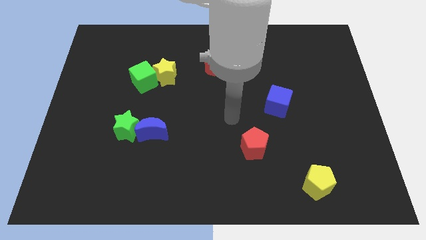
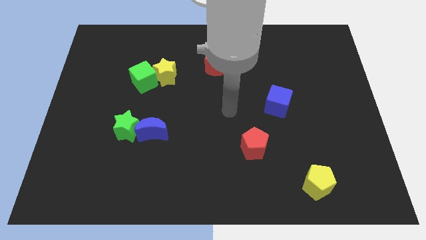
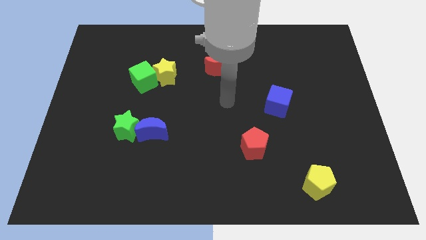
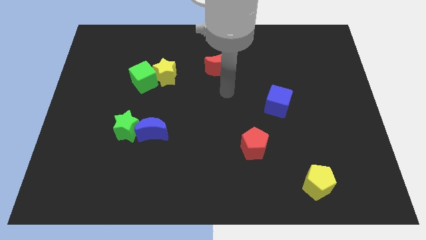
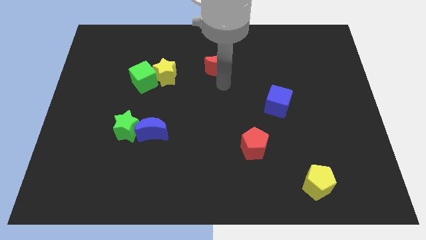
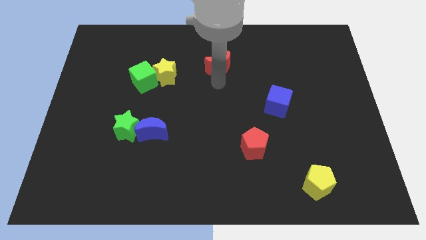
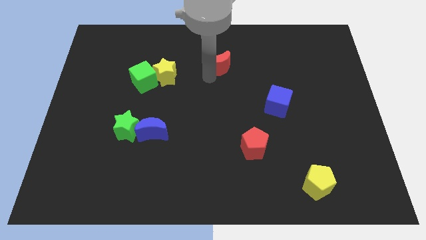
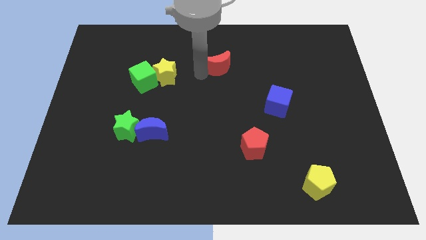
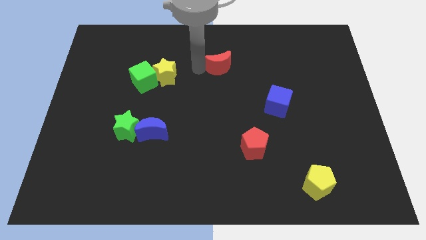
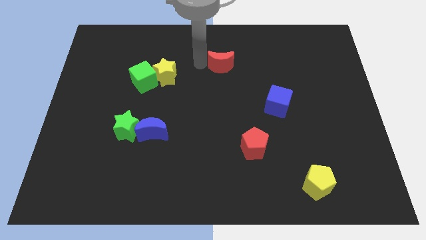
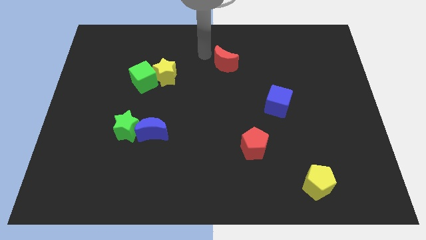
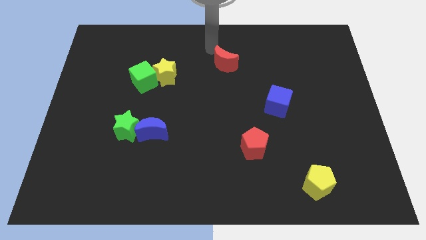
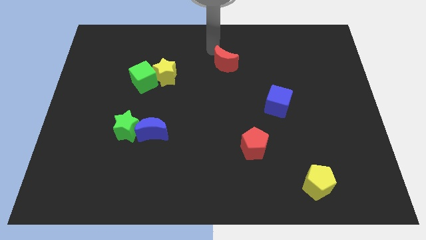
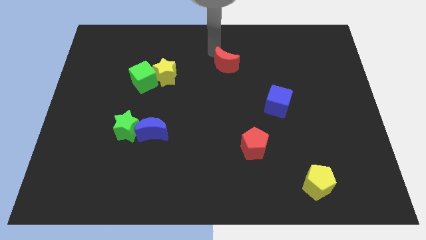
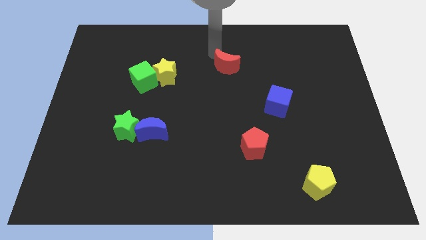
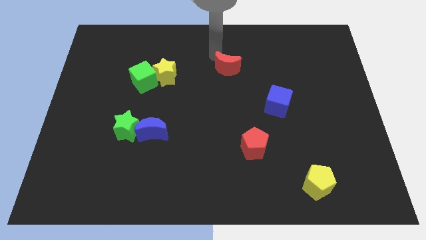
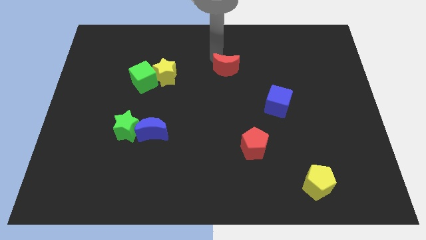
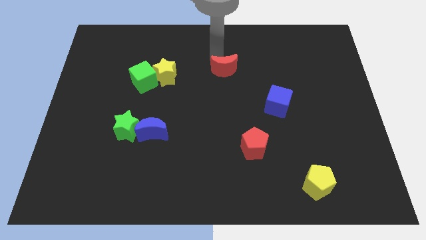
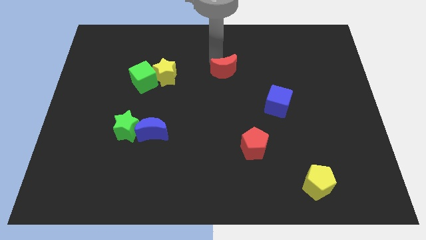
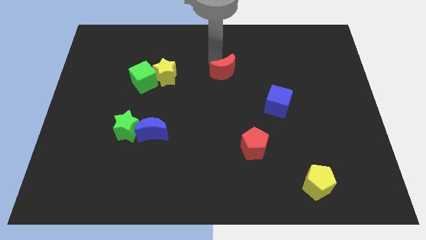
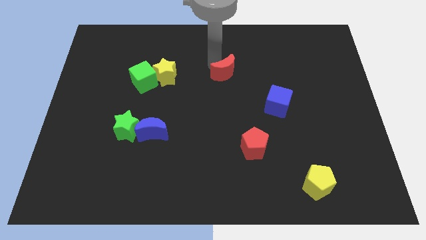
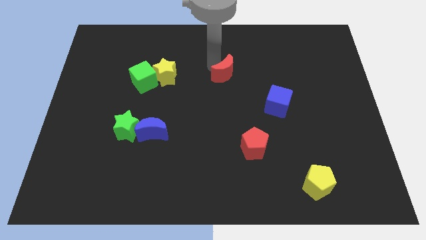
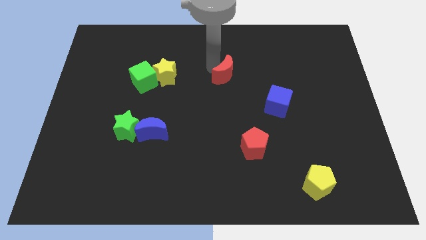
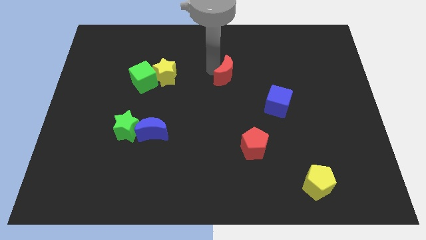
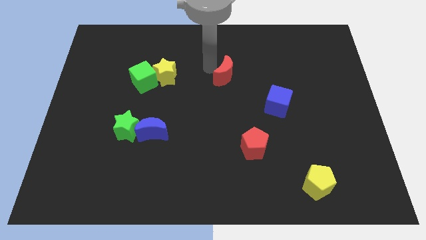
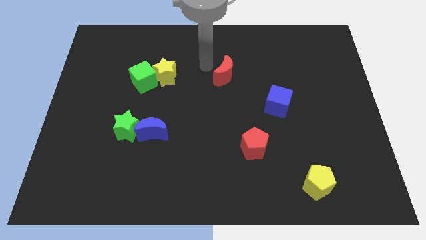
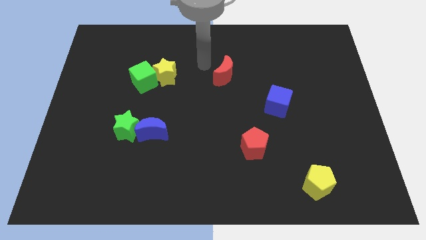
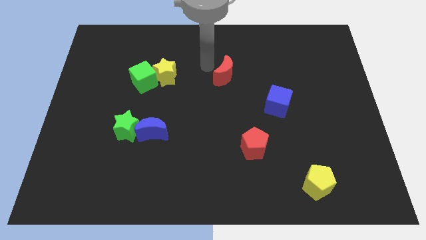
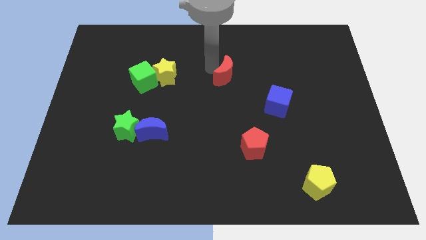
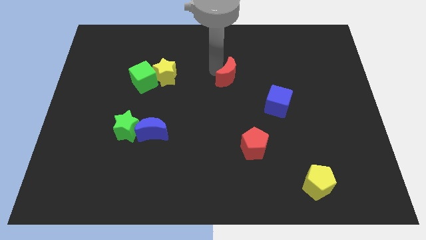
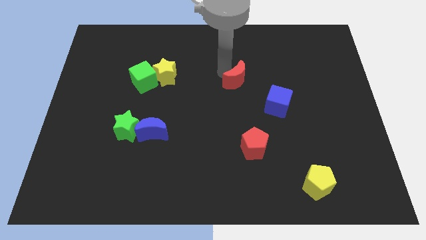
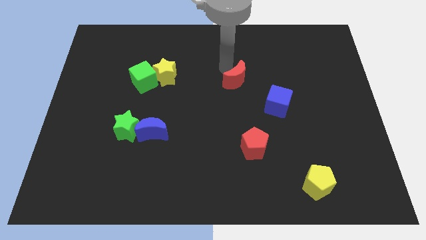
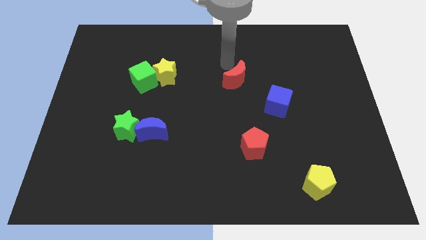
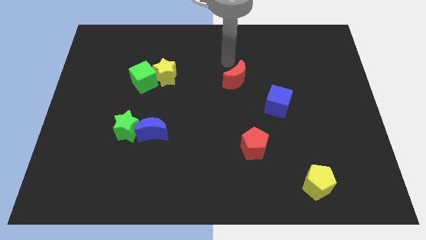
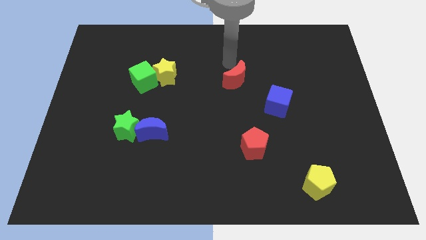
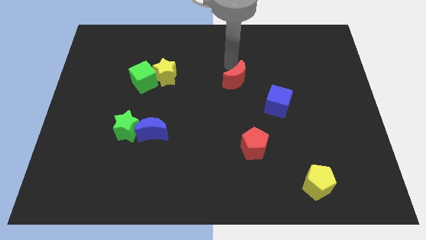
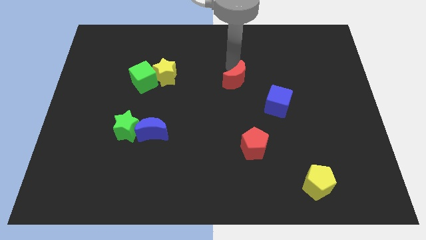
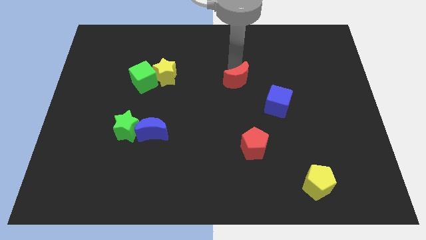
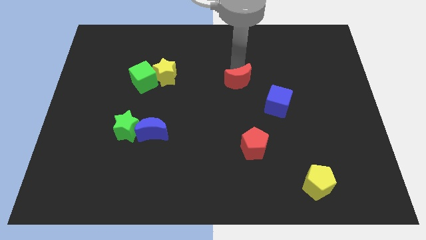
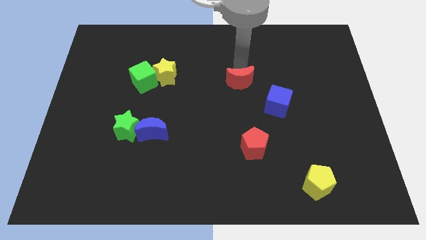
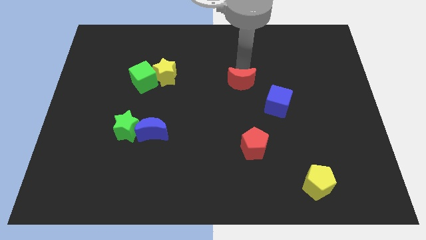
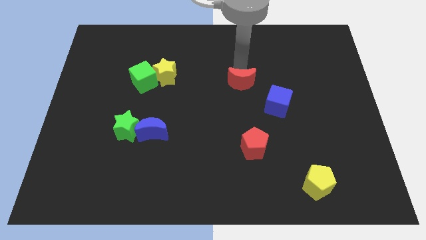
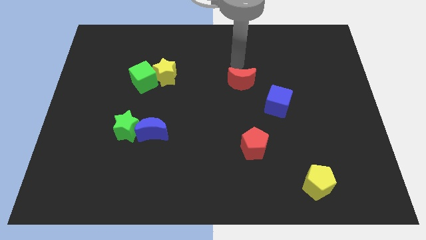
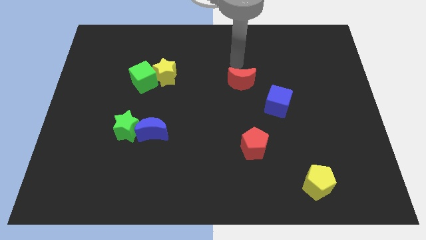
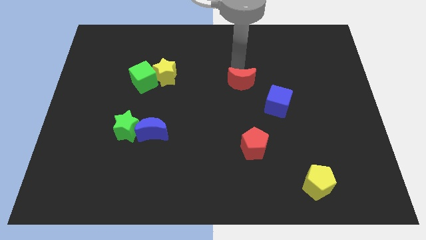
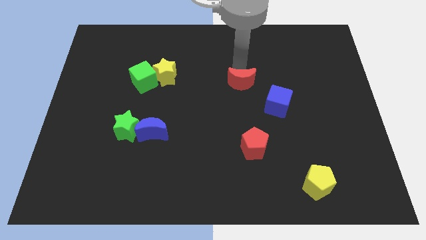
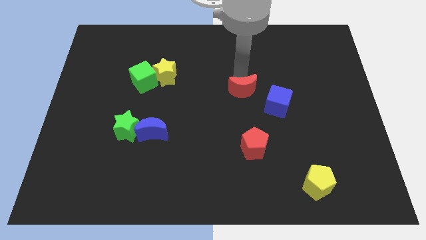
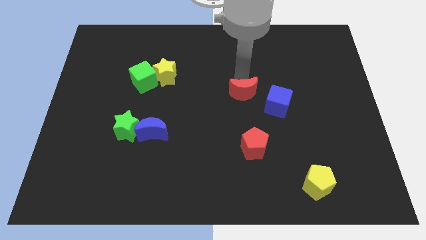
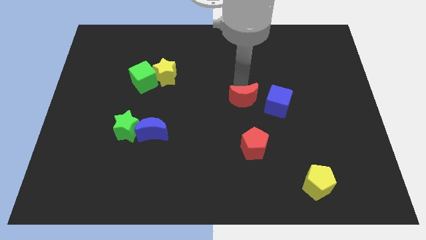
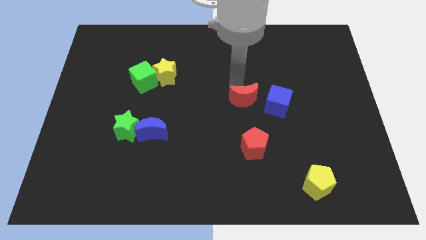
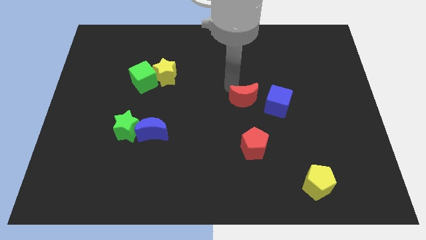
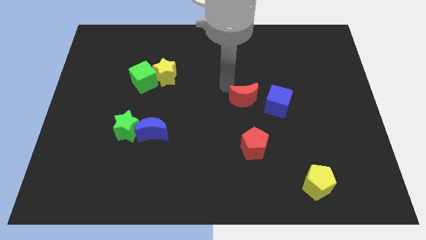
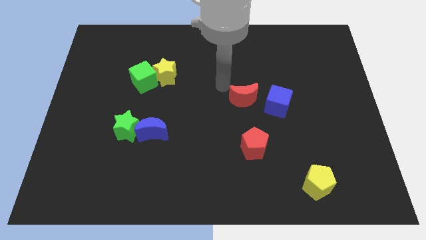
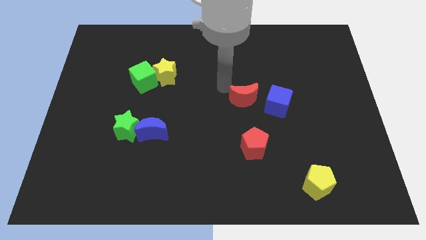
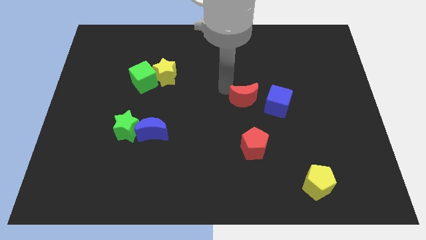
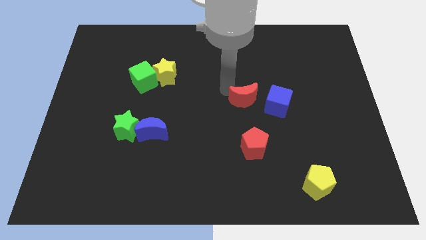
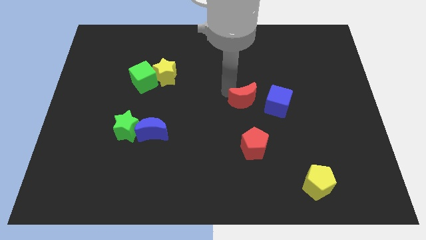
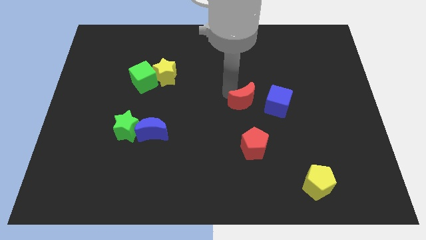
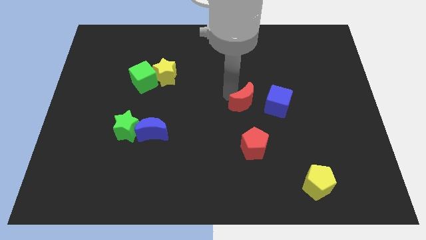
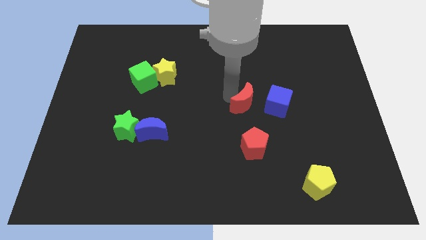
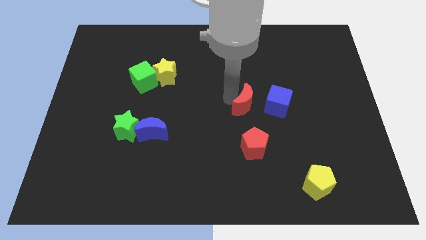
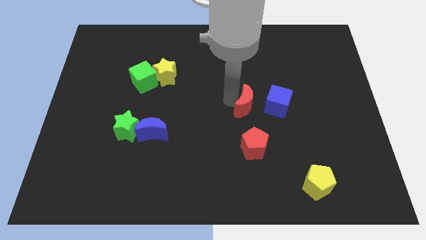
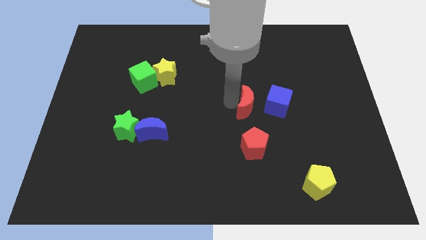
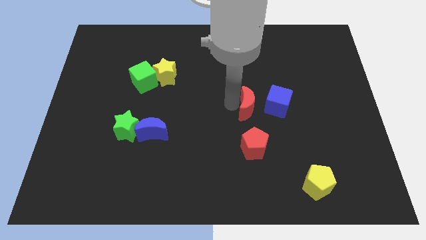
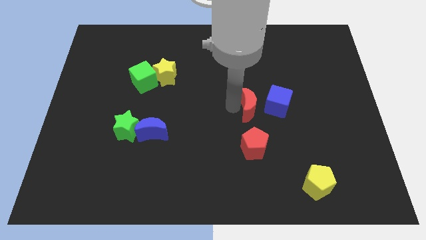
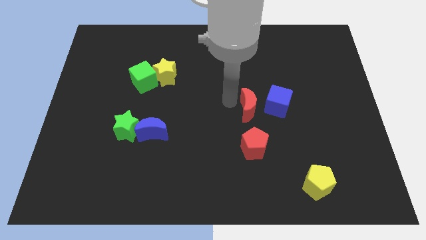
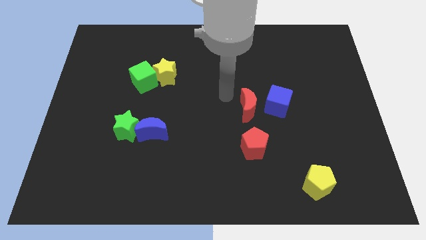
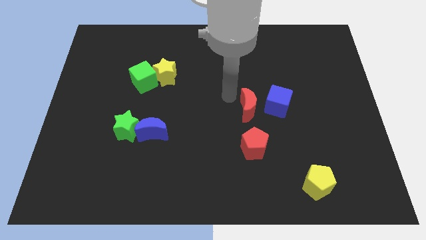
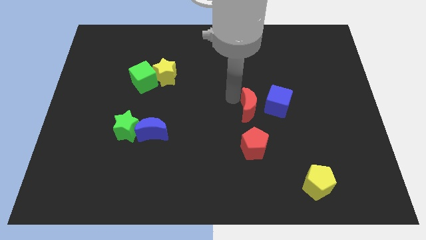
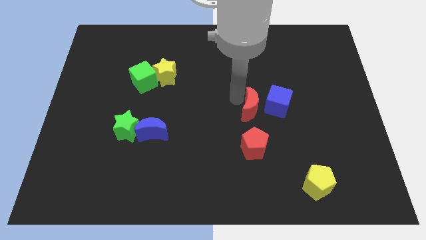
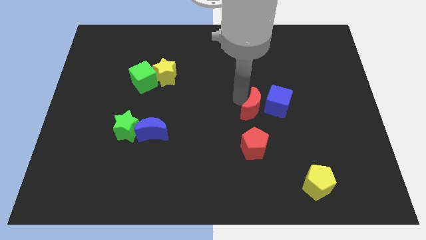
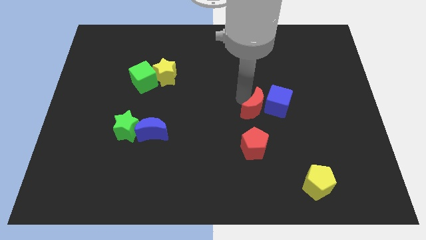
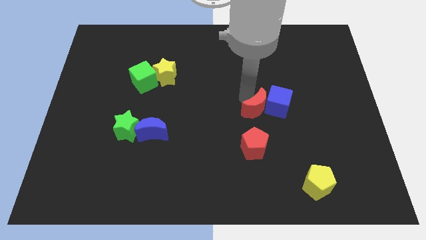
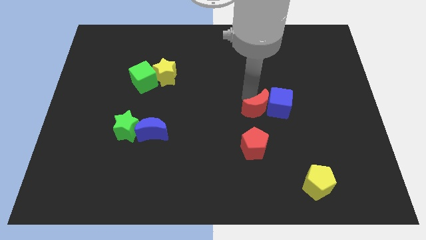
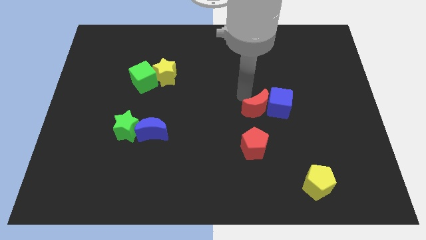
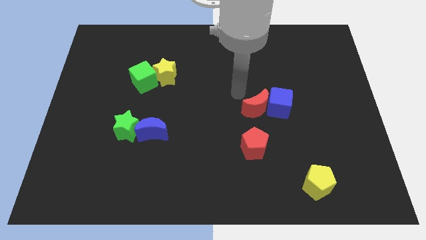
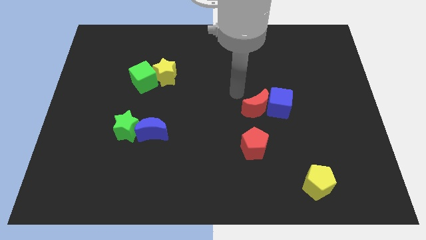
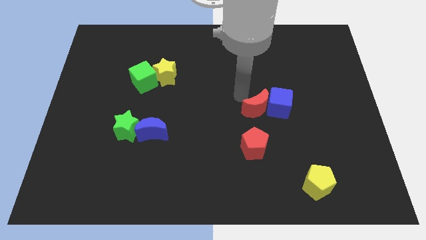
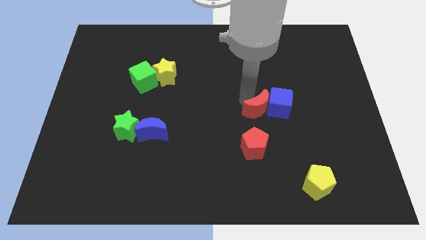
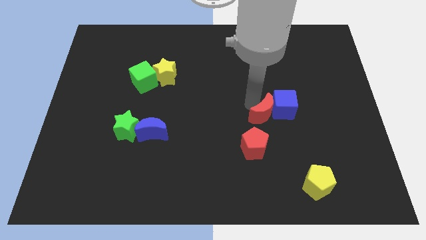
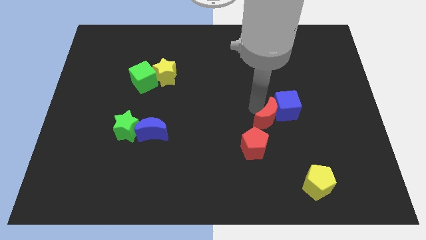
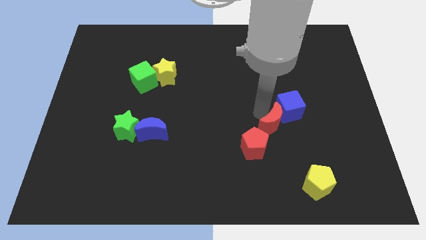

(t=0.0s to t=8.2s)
push the red moon downwards and to the right diagonally
